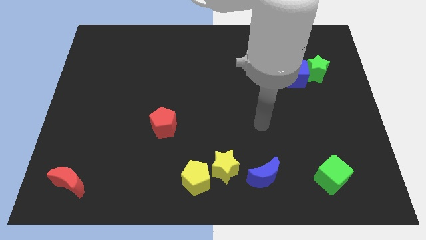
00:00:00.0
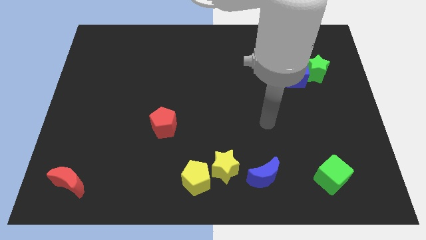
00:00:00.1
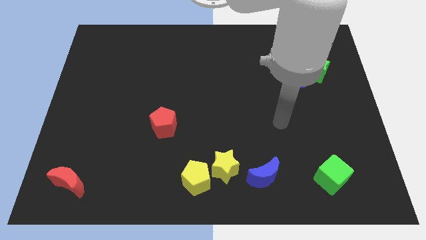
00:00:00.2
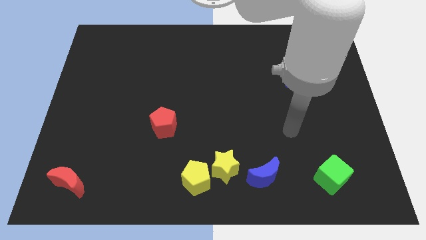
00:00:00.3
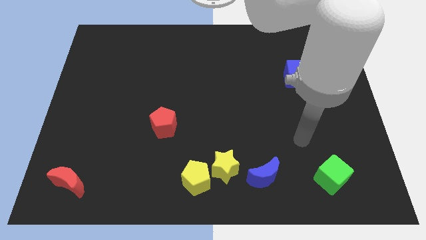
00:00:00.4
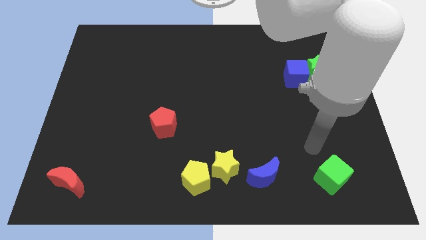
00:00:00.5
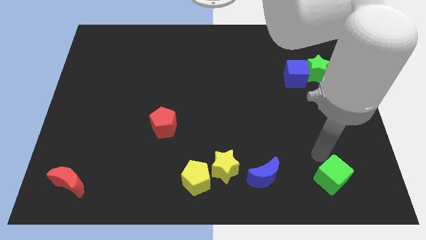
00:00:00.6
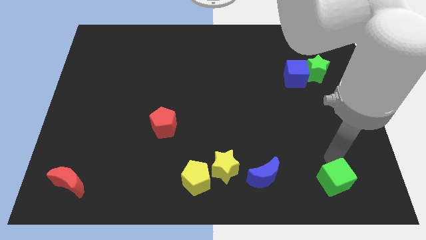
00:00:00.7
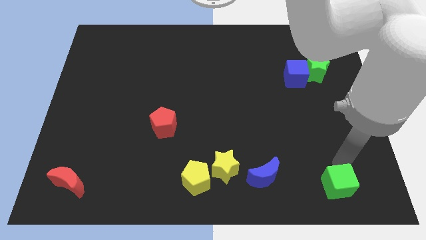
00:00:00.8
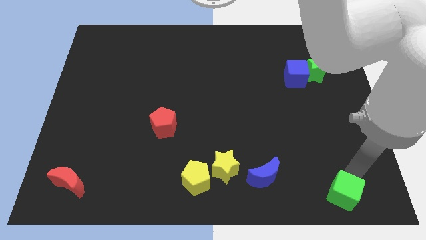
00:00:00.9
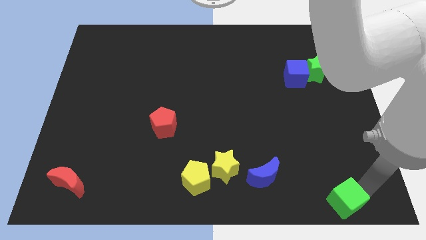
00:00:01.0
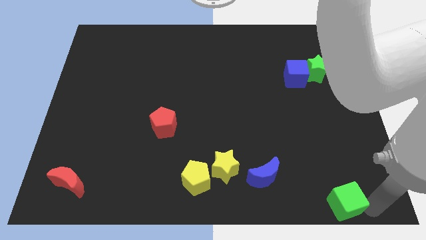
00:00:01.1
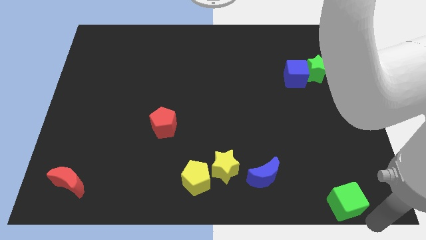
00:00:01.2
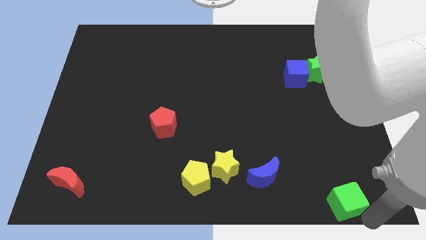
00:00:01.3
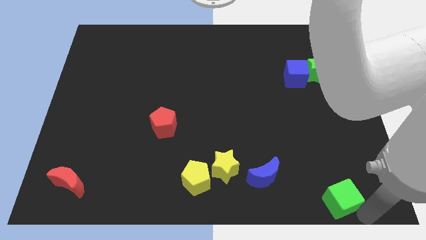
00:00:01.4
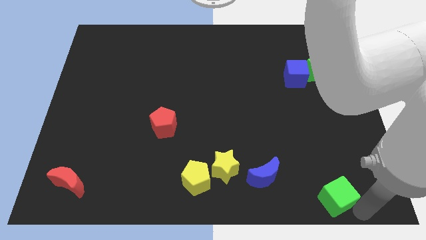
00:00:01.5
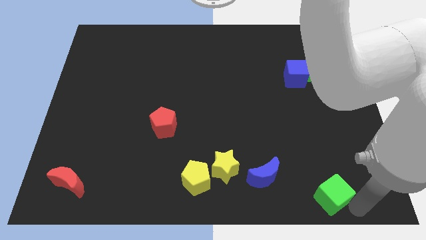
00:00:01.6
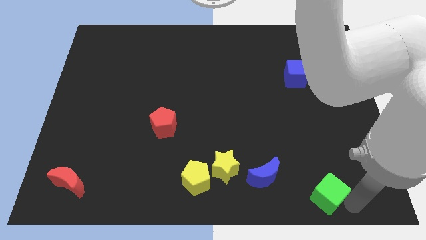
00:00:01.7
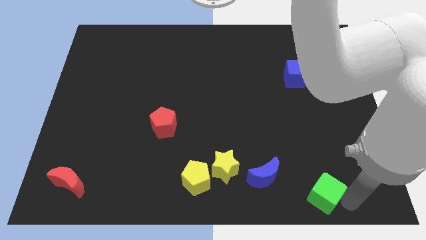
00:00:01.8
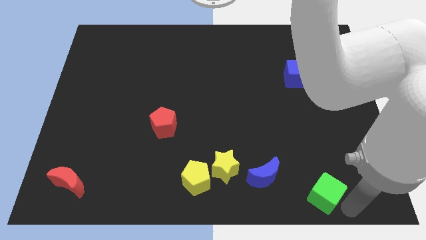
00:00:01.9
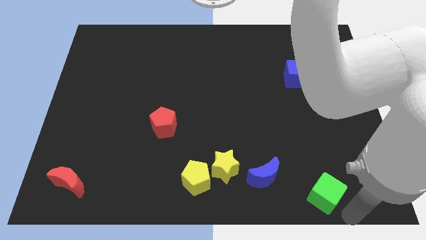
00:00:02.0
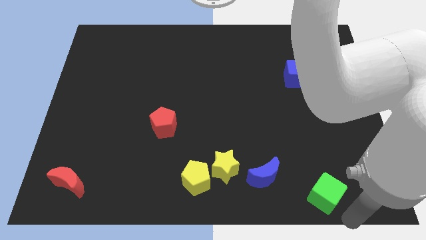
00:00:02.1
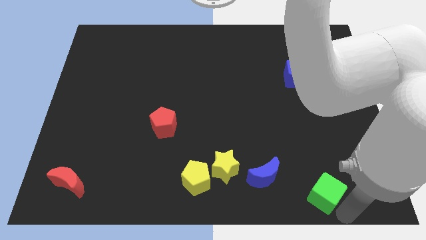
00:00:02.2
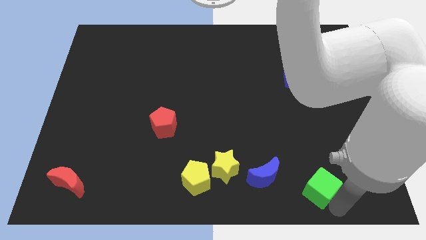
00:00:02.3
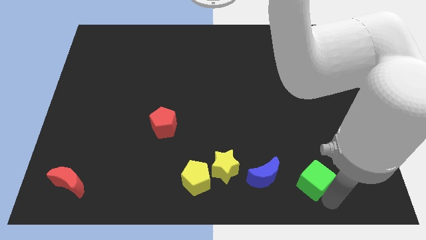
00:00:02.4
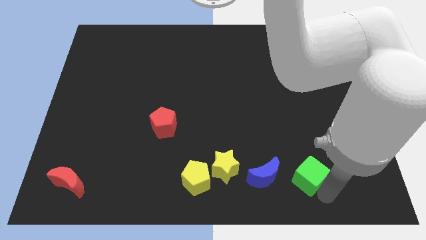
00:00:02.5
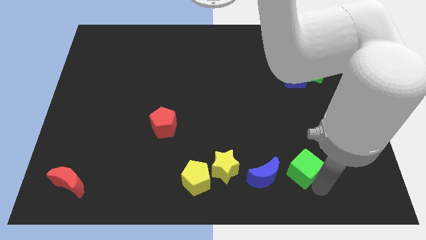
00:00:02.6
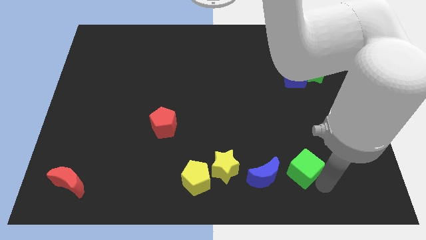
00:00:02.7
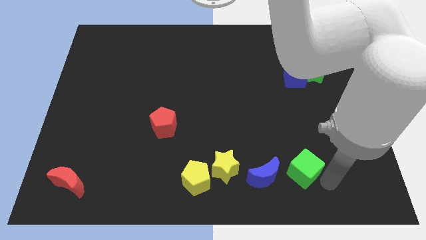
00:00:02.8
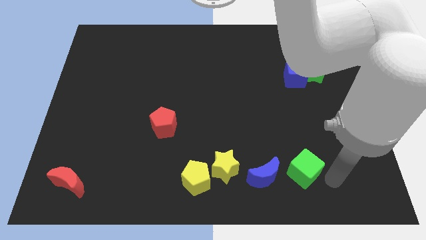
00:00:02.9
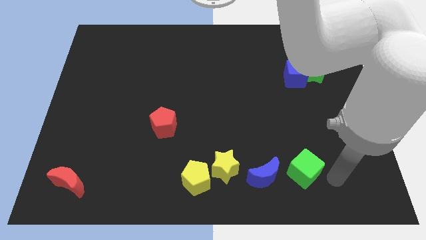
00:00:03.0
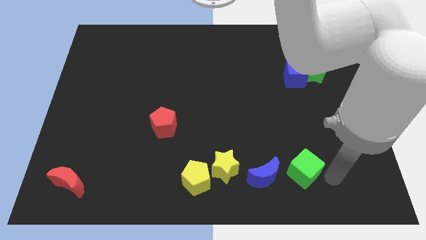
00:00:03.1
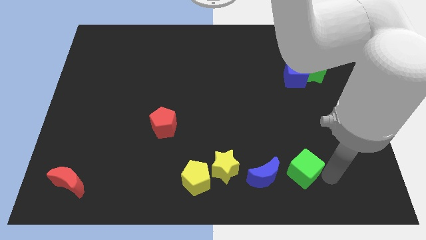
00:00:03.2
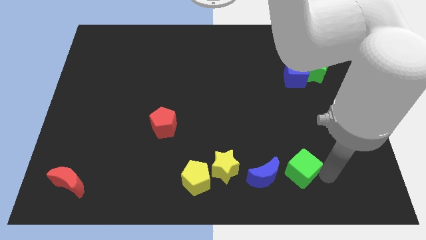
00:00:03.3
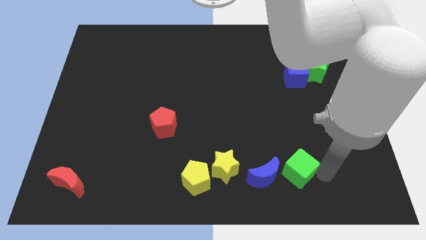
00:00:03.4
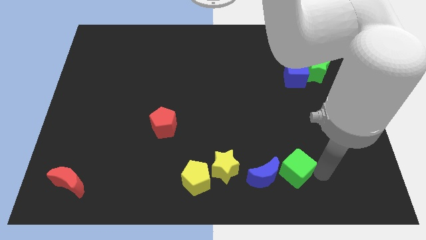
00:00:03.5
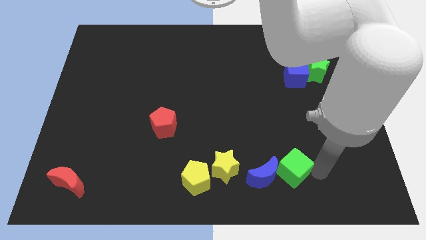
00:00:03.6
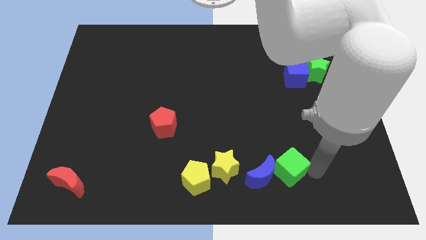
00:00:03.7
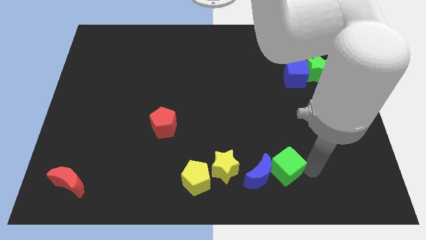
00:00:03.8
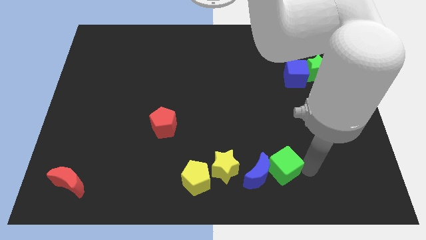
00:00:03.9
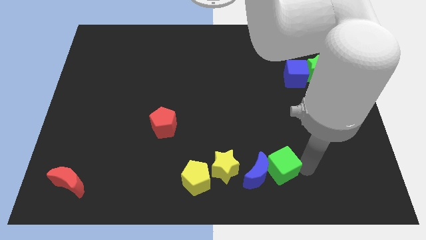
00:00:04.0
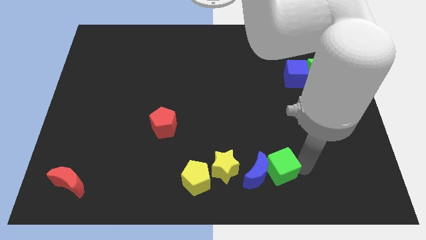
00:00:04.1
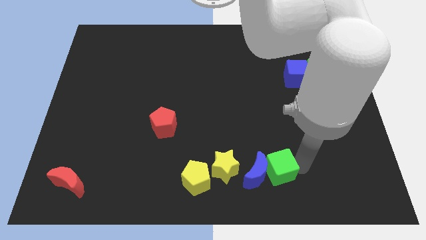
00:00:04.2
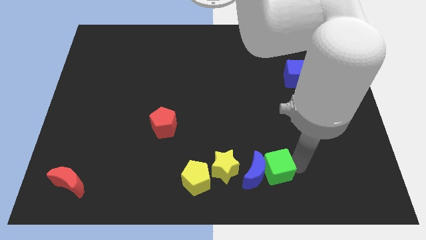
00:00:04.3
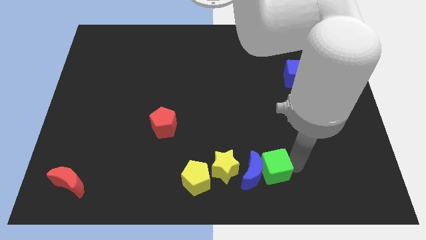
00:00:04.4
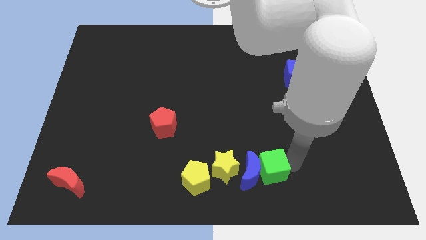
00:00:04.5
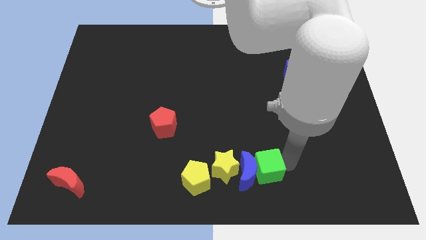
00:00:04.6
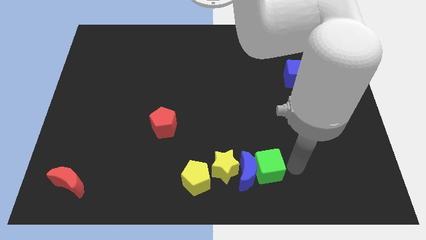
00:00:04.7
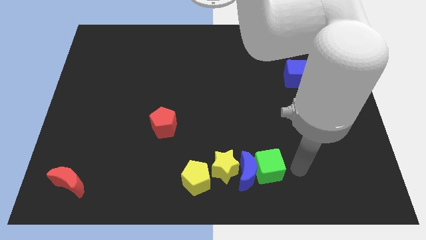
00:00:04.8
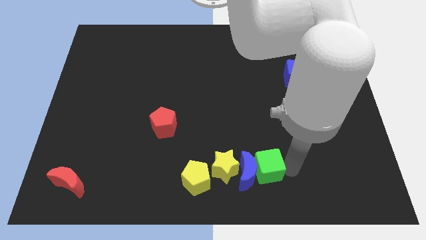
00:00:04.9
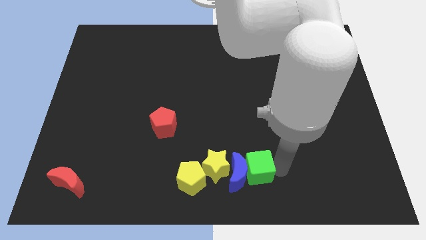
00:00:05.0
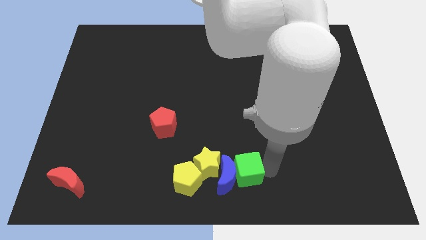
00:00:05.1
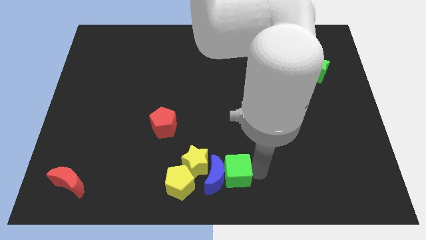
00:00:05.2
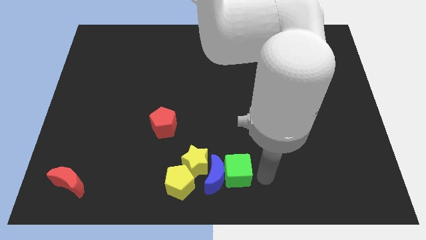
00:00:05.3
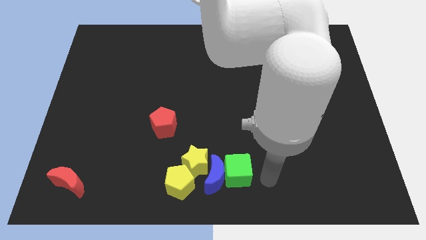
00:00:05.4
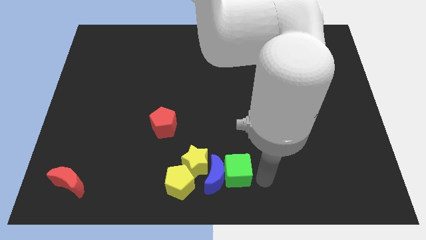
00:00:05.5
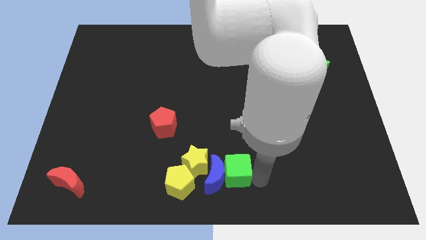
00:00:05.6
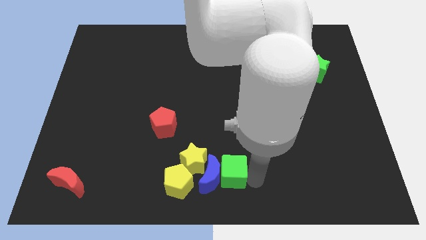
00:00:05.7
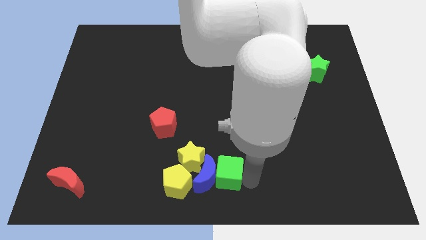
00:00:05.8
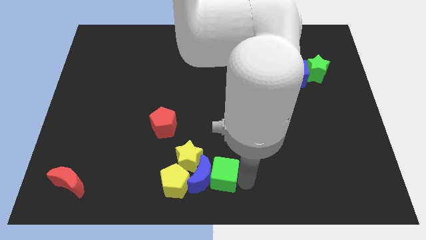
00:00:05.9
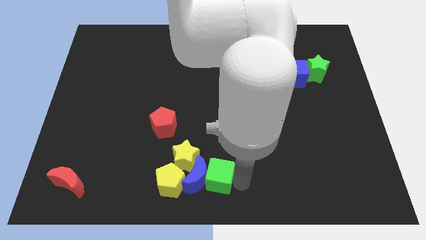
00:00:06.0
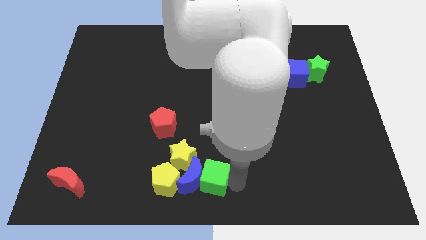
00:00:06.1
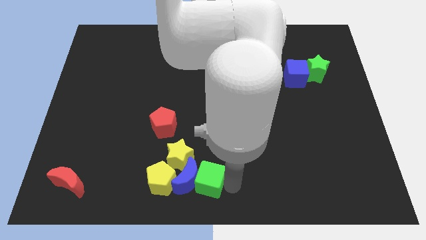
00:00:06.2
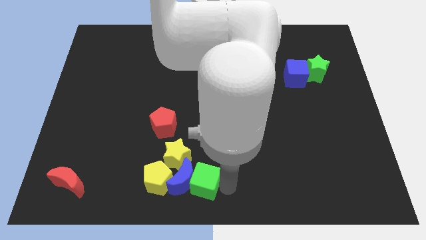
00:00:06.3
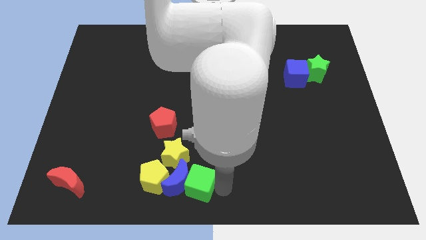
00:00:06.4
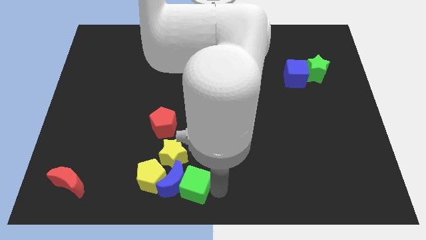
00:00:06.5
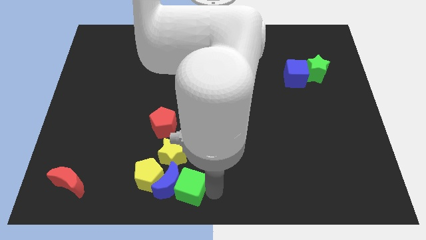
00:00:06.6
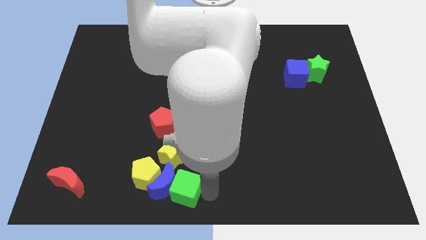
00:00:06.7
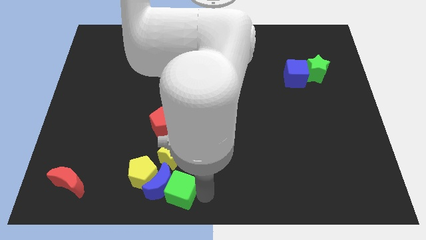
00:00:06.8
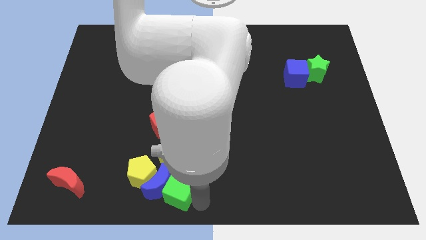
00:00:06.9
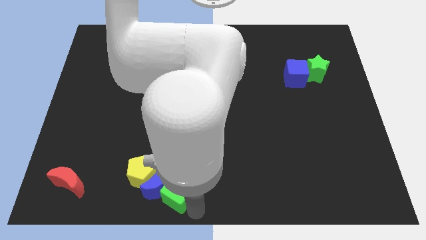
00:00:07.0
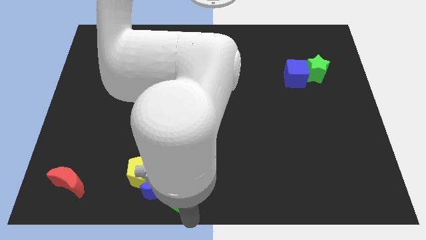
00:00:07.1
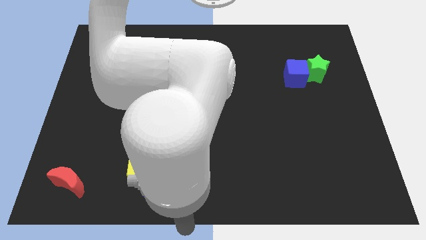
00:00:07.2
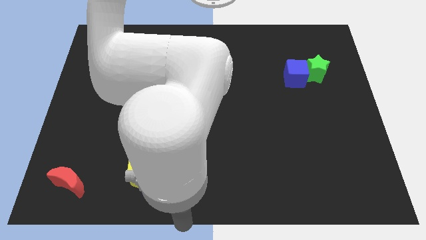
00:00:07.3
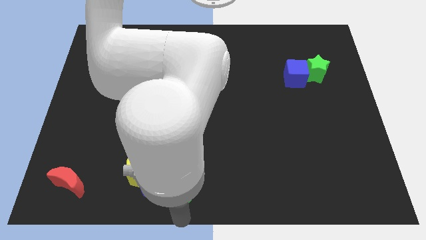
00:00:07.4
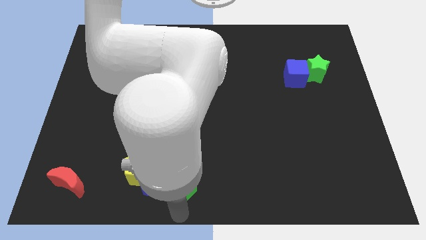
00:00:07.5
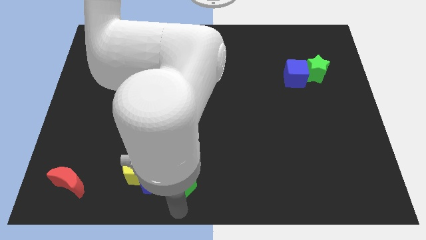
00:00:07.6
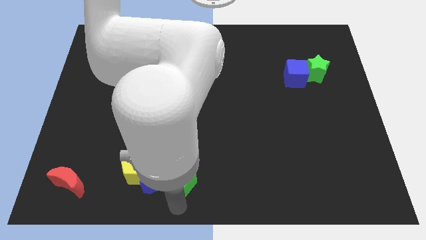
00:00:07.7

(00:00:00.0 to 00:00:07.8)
put the green cube next to the yellow star

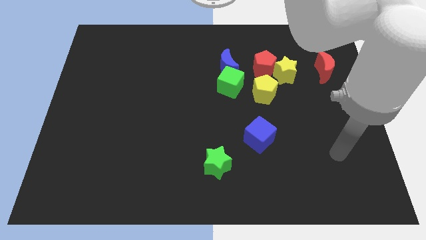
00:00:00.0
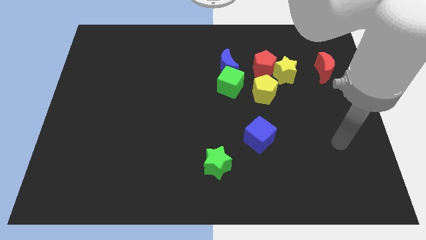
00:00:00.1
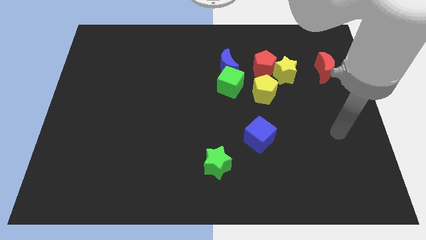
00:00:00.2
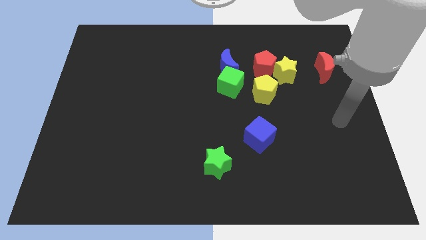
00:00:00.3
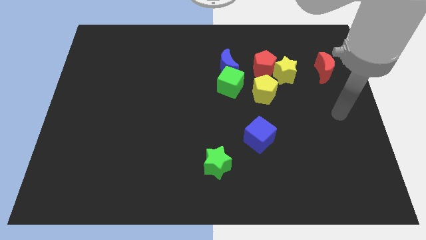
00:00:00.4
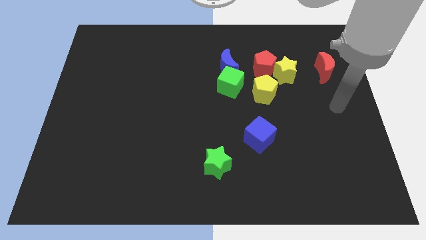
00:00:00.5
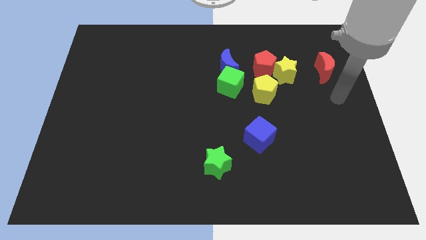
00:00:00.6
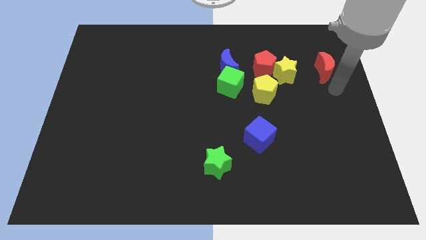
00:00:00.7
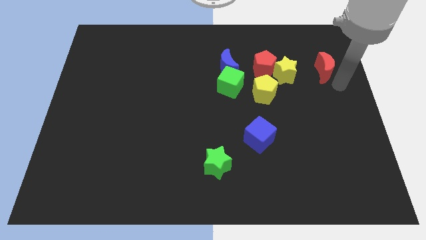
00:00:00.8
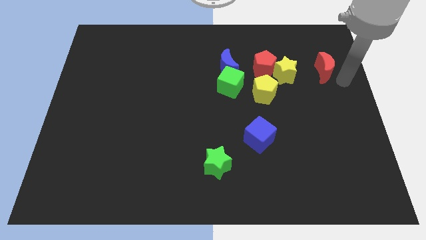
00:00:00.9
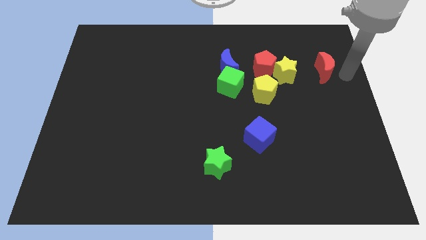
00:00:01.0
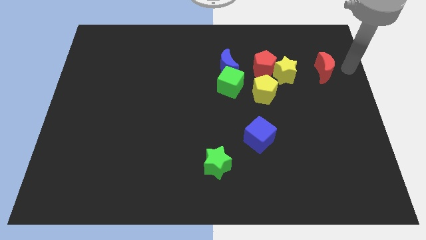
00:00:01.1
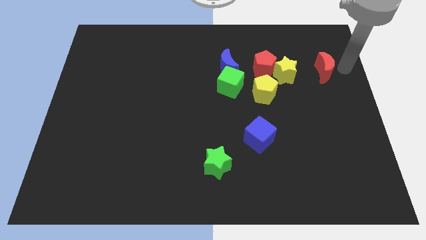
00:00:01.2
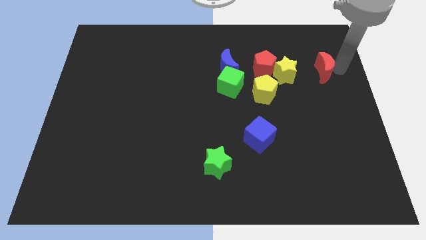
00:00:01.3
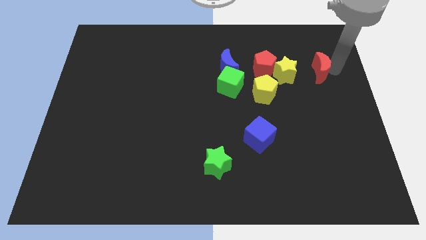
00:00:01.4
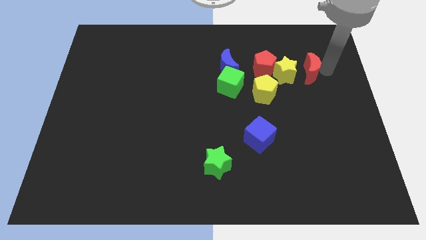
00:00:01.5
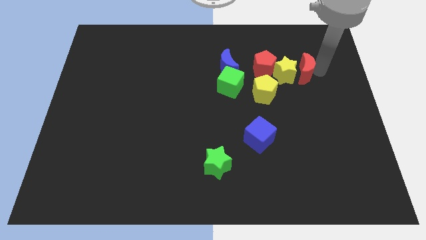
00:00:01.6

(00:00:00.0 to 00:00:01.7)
put the red moon next to the yellow star
